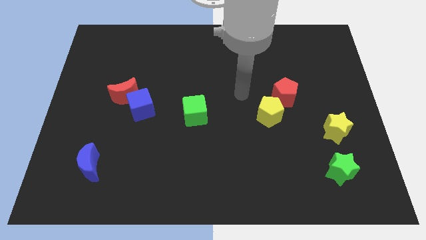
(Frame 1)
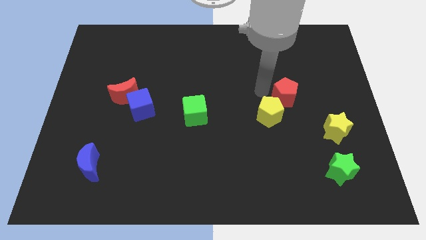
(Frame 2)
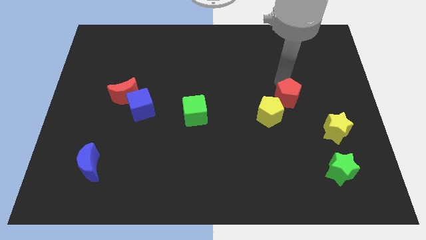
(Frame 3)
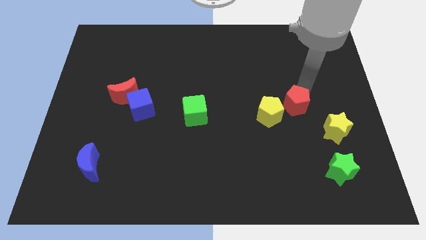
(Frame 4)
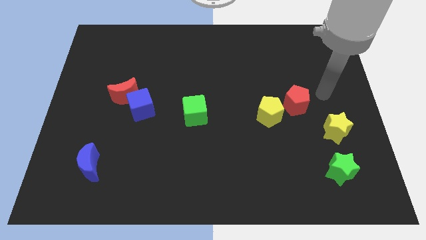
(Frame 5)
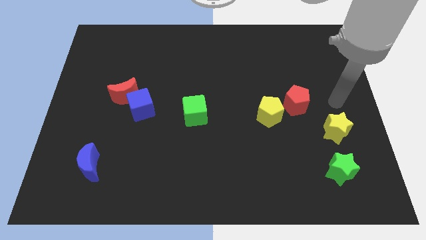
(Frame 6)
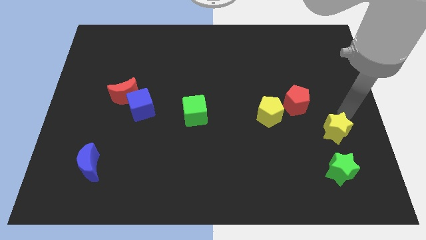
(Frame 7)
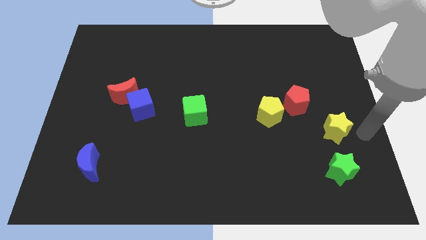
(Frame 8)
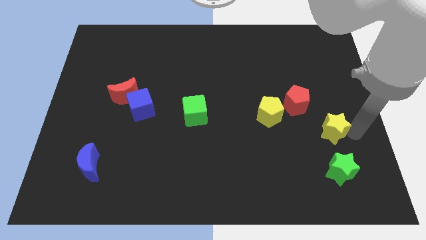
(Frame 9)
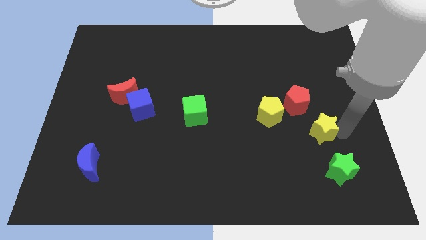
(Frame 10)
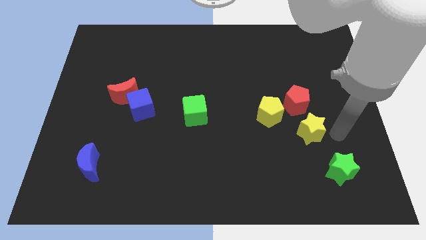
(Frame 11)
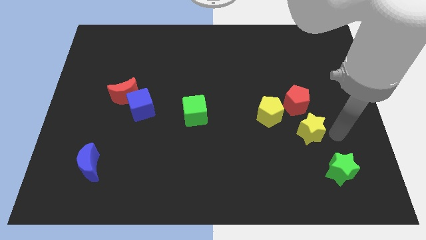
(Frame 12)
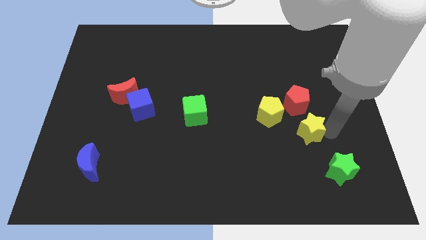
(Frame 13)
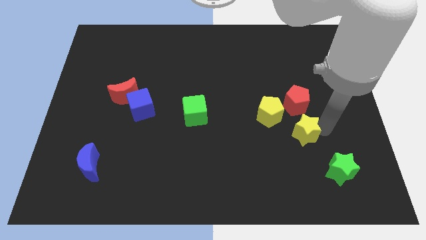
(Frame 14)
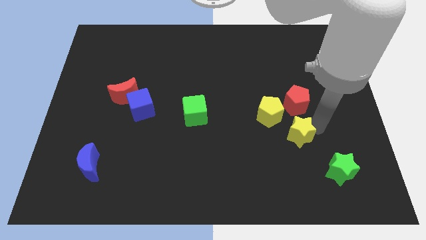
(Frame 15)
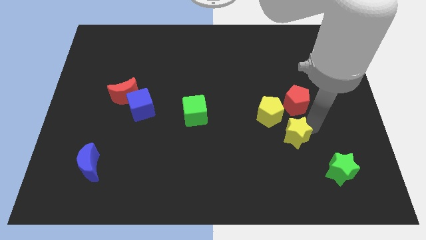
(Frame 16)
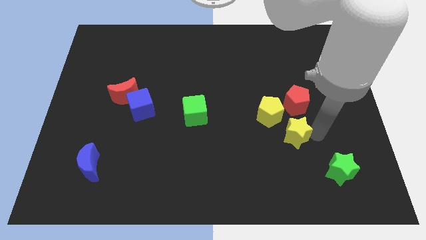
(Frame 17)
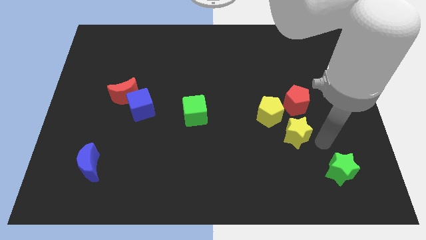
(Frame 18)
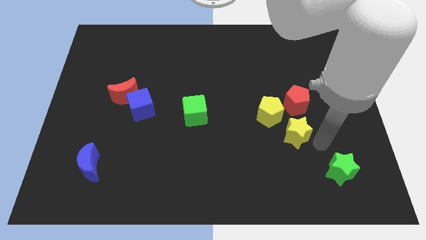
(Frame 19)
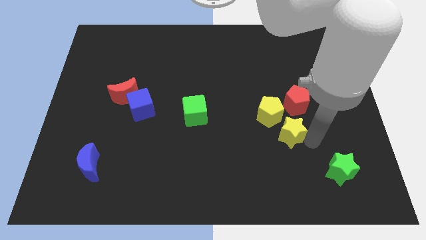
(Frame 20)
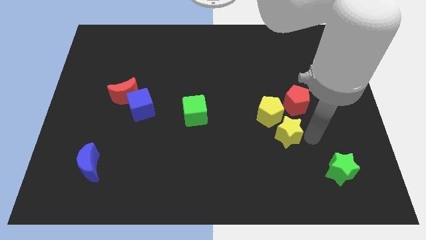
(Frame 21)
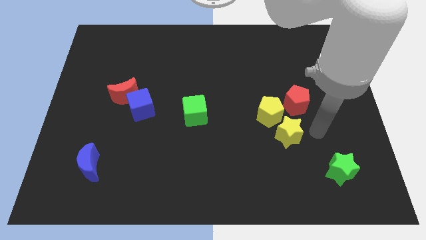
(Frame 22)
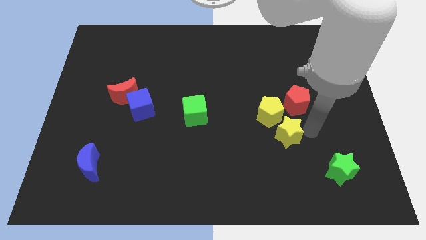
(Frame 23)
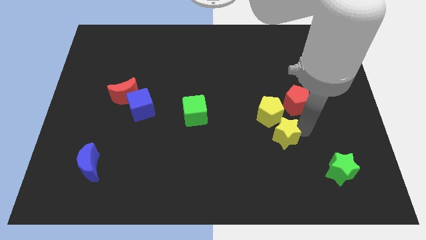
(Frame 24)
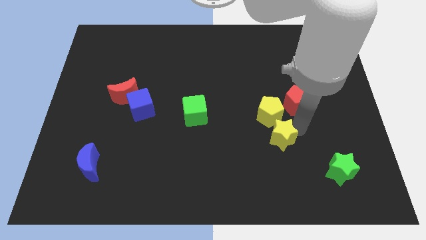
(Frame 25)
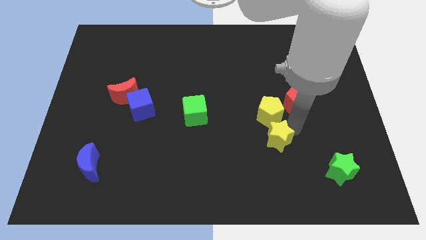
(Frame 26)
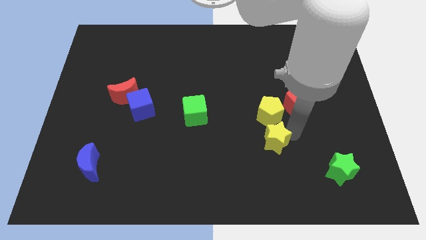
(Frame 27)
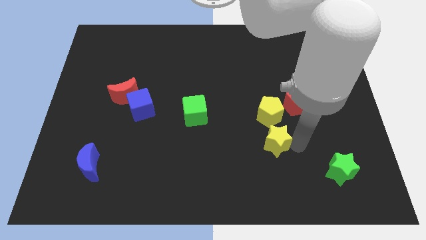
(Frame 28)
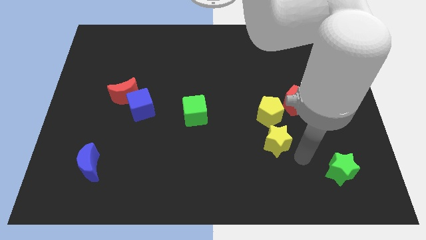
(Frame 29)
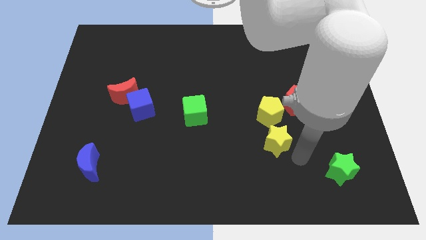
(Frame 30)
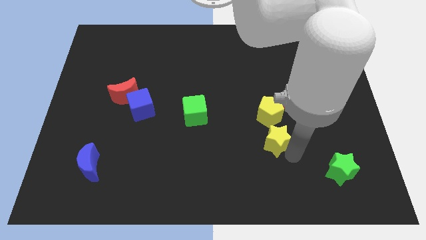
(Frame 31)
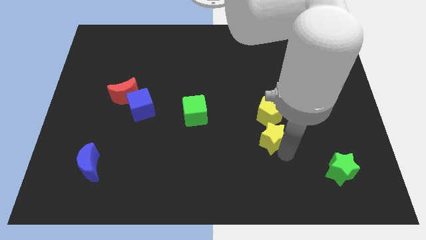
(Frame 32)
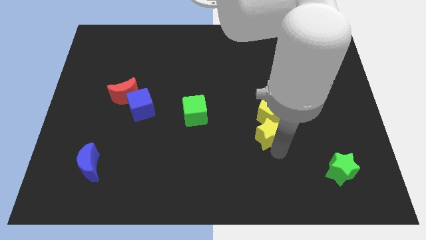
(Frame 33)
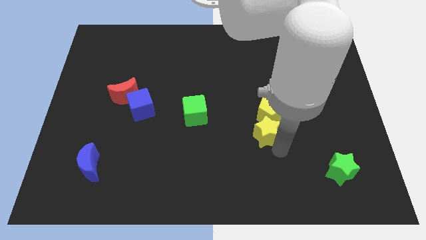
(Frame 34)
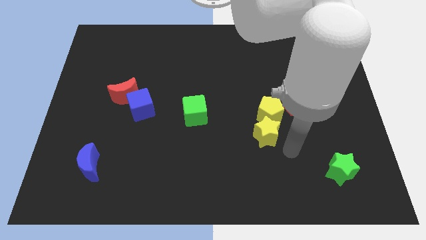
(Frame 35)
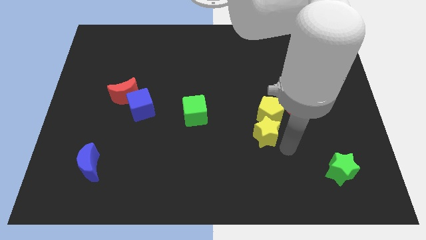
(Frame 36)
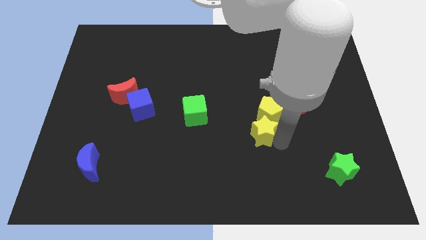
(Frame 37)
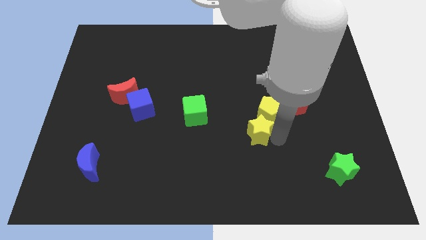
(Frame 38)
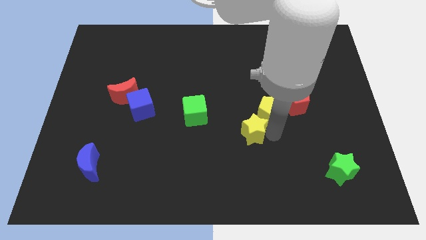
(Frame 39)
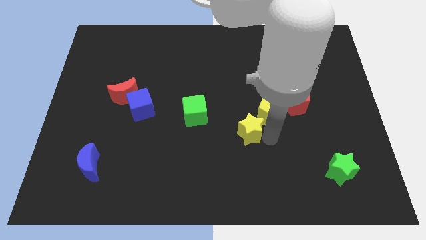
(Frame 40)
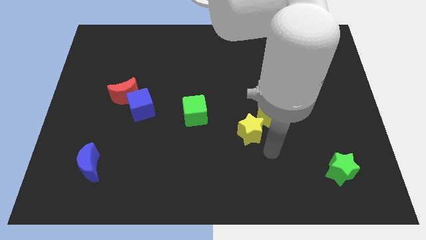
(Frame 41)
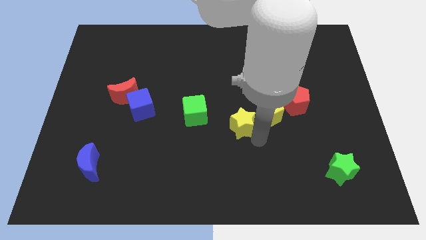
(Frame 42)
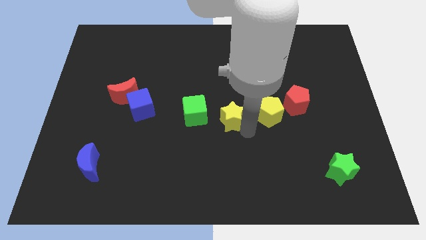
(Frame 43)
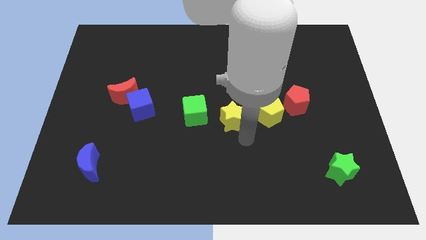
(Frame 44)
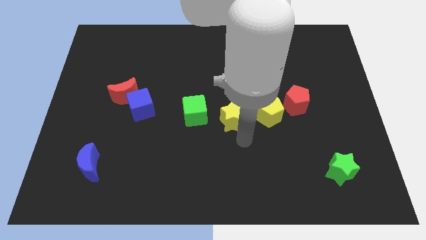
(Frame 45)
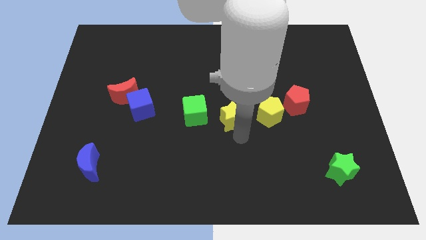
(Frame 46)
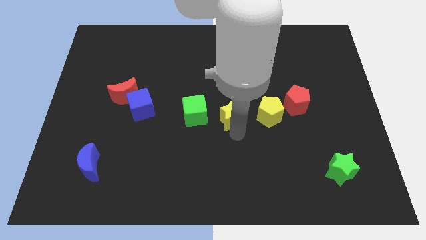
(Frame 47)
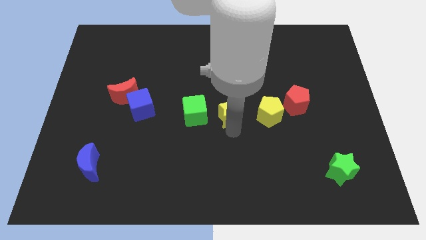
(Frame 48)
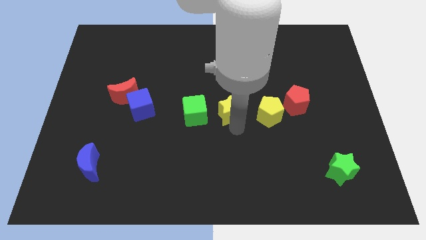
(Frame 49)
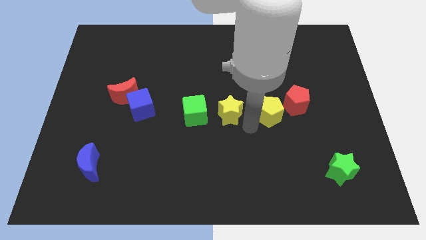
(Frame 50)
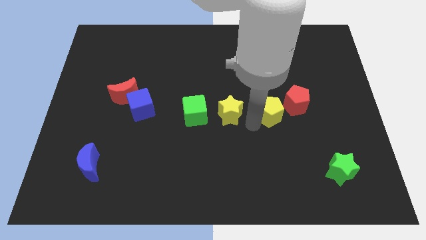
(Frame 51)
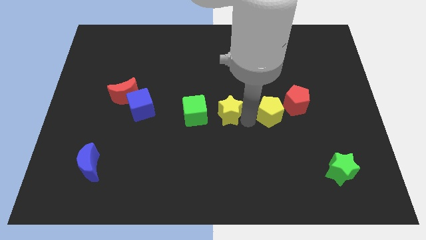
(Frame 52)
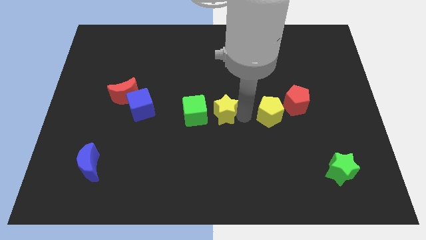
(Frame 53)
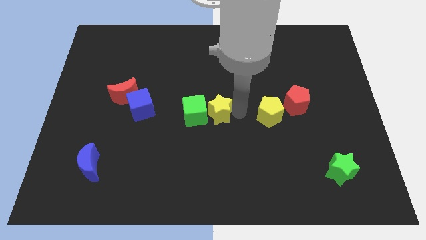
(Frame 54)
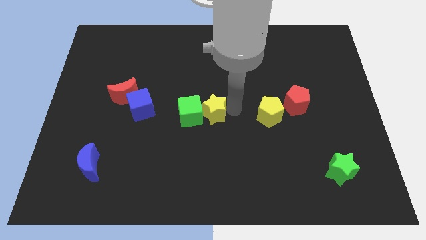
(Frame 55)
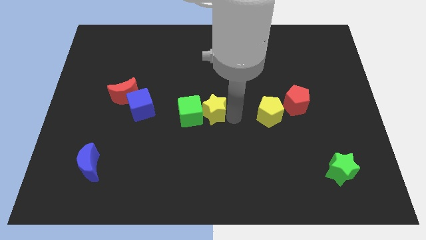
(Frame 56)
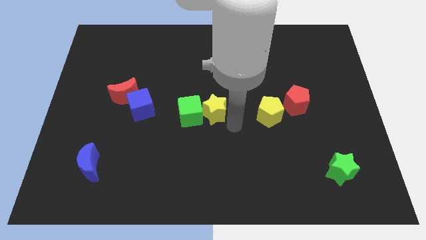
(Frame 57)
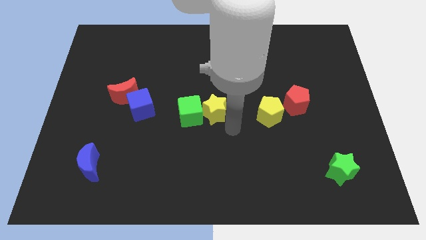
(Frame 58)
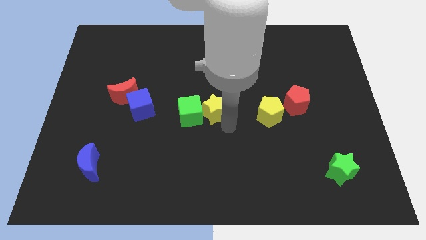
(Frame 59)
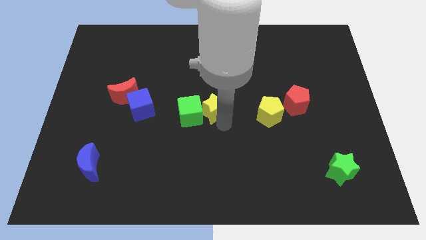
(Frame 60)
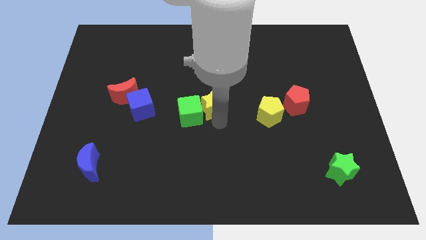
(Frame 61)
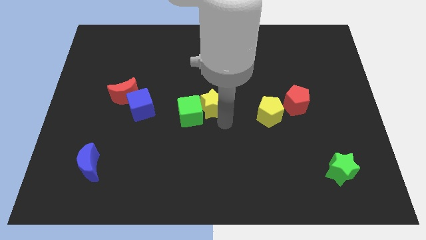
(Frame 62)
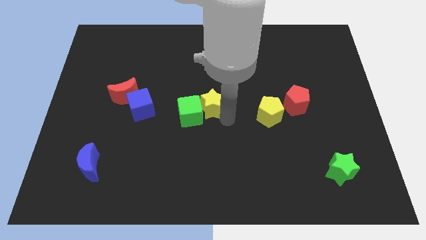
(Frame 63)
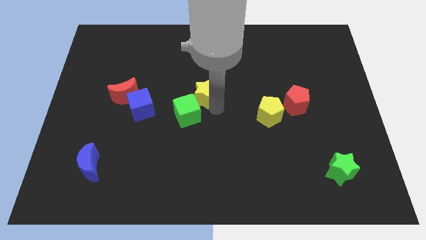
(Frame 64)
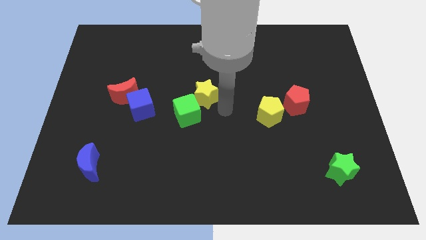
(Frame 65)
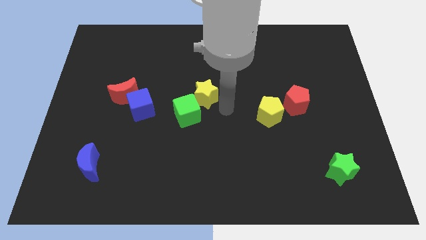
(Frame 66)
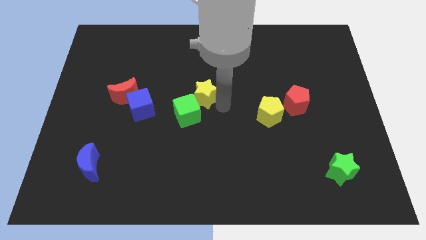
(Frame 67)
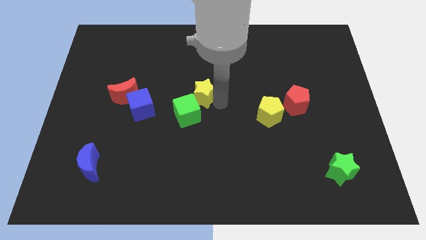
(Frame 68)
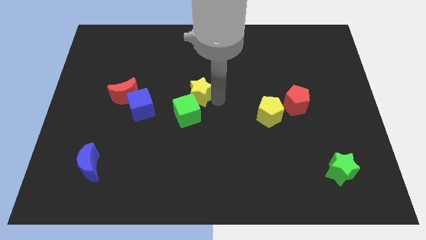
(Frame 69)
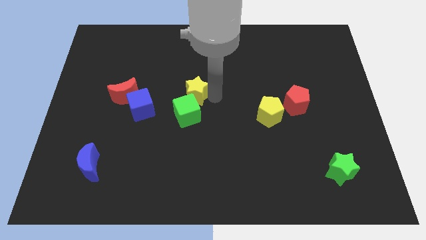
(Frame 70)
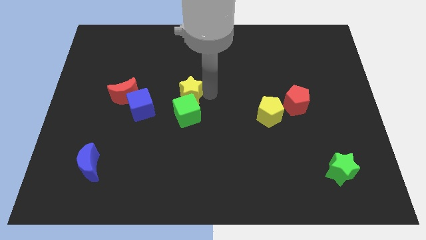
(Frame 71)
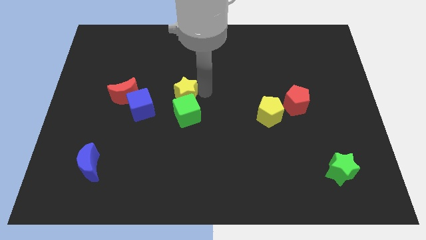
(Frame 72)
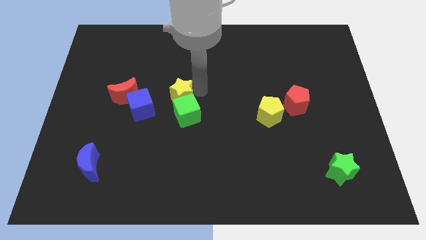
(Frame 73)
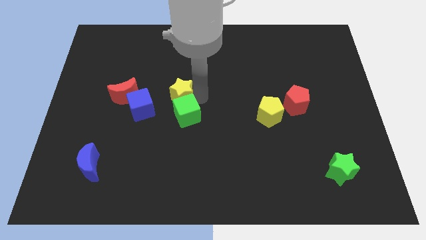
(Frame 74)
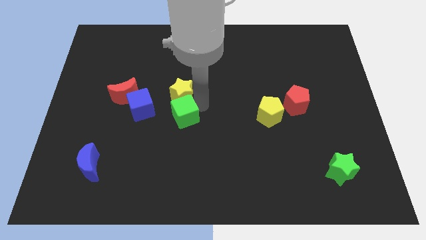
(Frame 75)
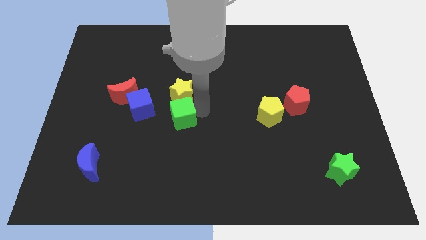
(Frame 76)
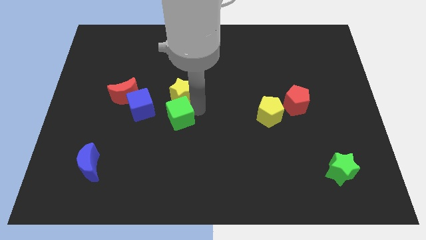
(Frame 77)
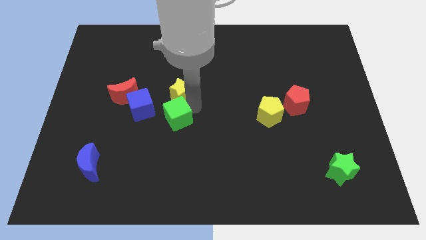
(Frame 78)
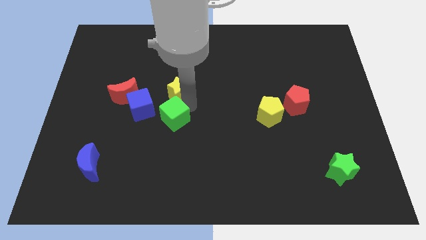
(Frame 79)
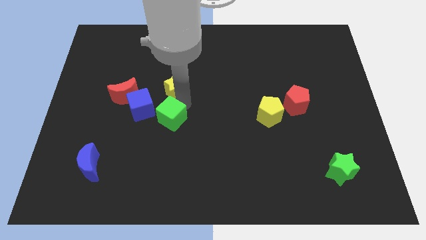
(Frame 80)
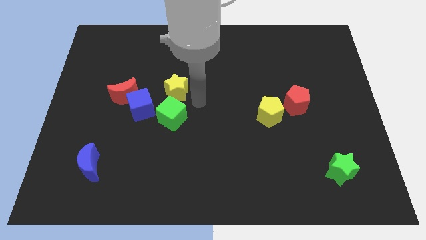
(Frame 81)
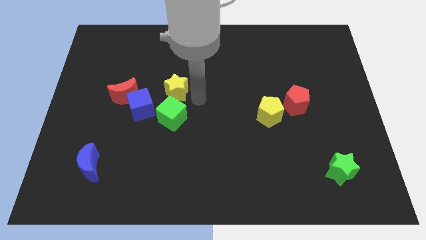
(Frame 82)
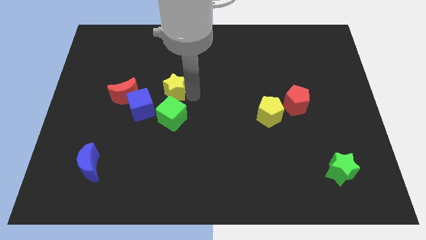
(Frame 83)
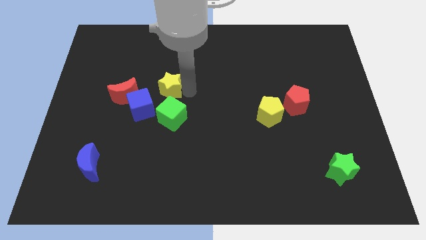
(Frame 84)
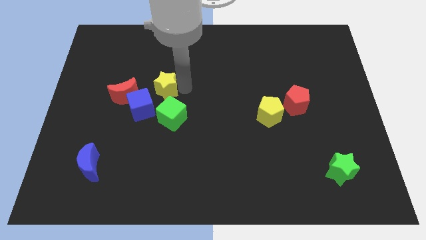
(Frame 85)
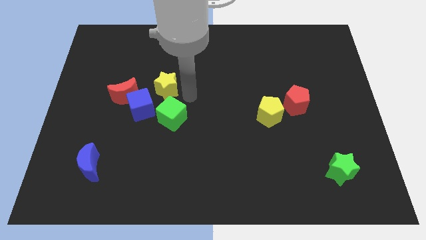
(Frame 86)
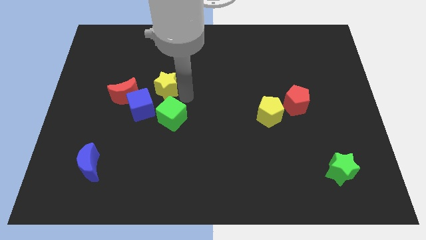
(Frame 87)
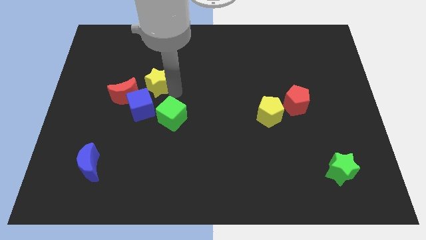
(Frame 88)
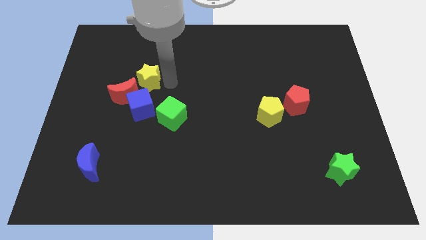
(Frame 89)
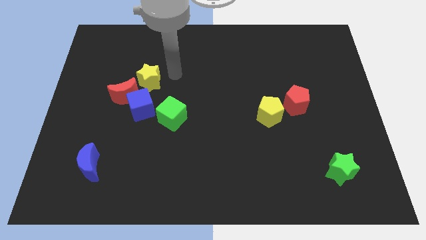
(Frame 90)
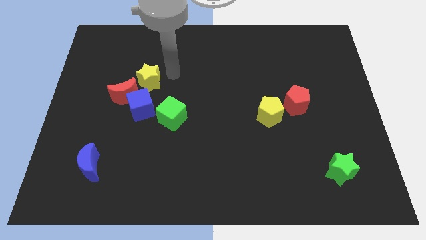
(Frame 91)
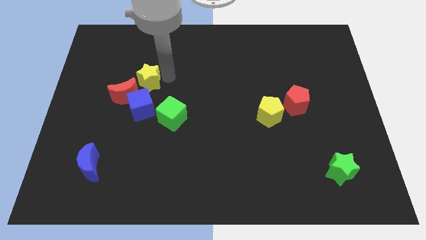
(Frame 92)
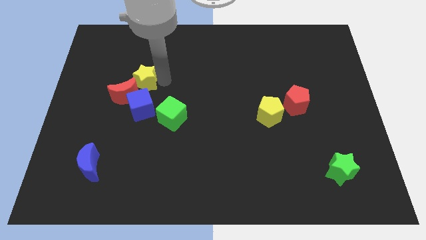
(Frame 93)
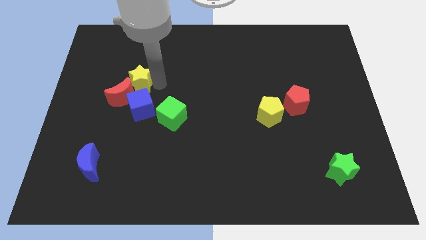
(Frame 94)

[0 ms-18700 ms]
move the yellow star diagonally up and to the left of the blue cube
